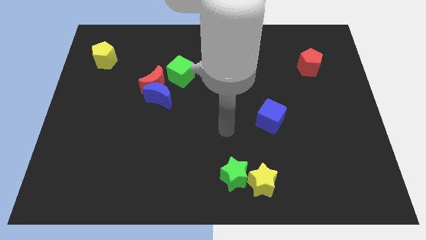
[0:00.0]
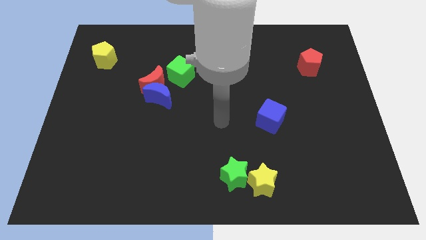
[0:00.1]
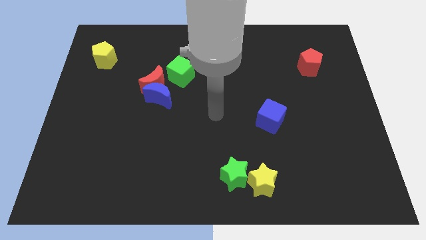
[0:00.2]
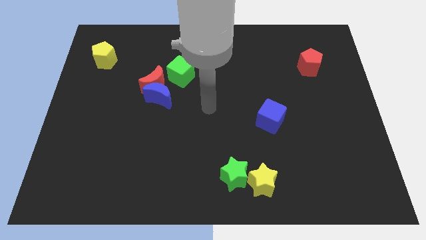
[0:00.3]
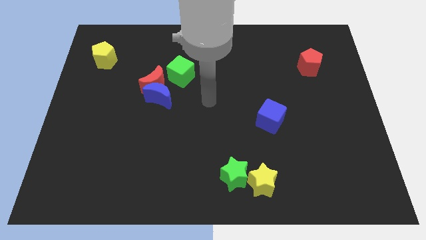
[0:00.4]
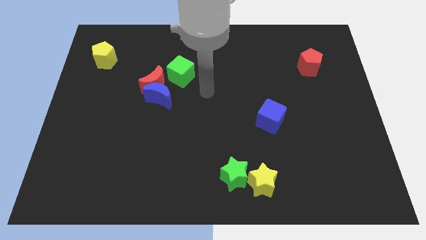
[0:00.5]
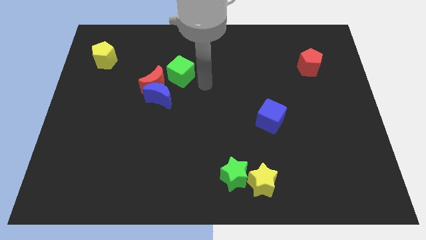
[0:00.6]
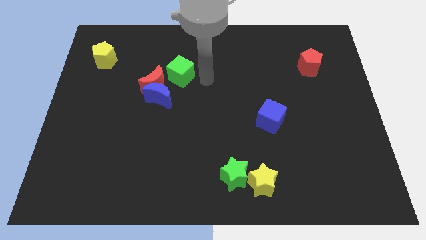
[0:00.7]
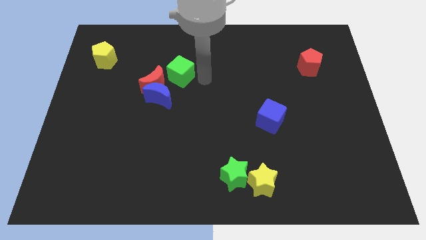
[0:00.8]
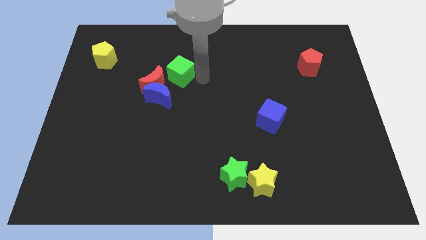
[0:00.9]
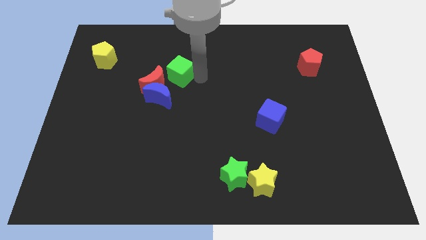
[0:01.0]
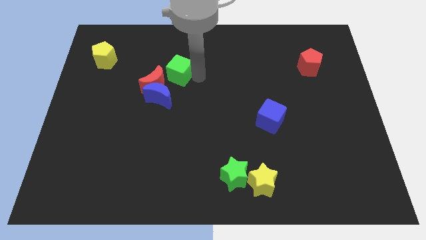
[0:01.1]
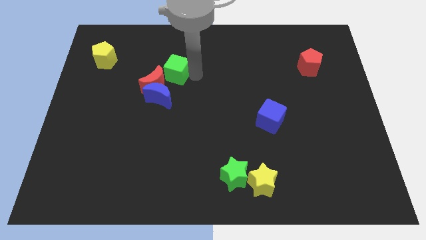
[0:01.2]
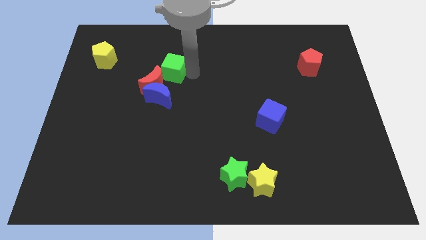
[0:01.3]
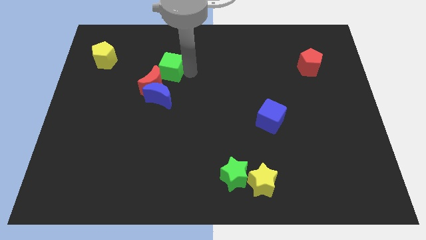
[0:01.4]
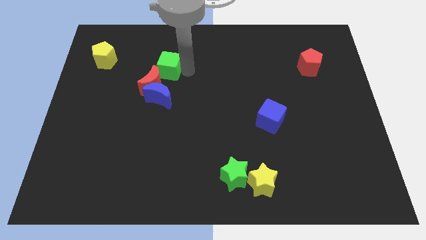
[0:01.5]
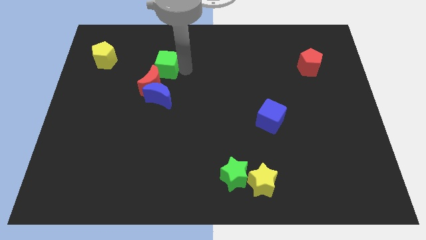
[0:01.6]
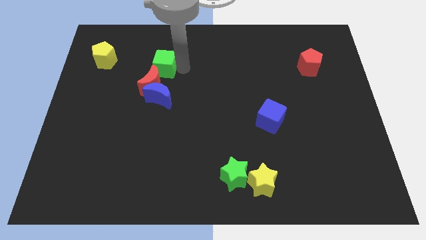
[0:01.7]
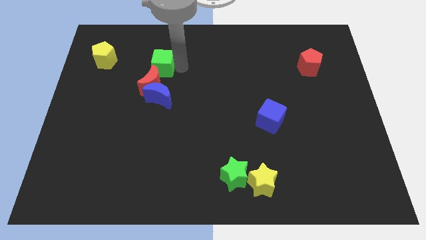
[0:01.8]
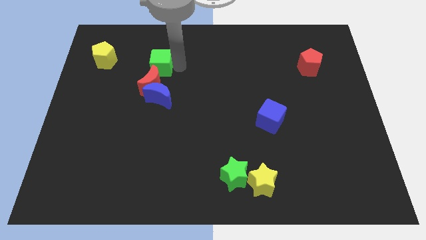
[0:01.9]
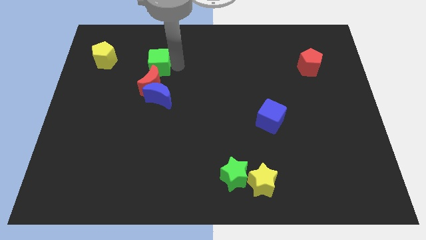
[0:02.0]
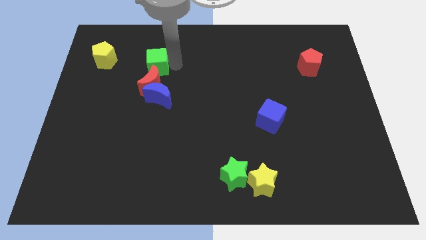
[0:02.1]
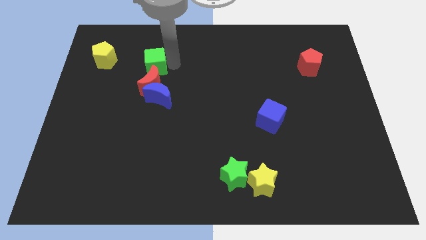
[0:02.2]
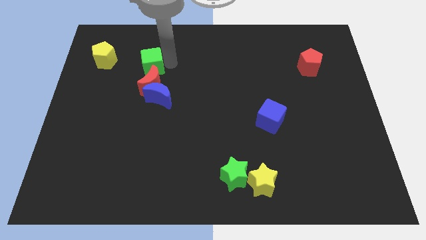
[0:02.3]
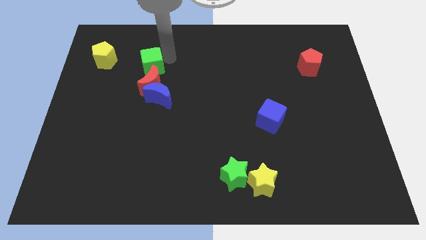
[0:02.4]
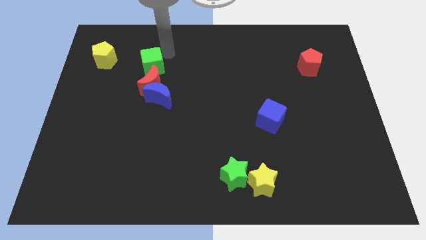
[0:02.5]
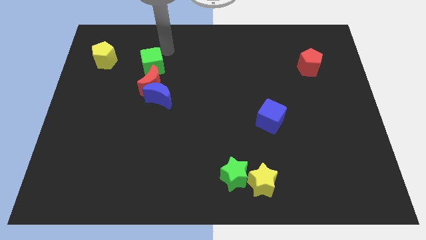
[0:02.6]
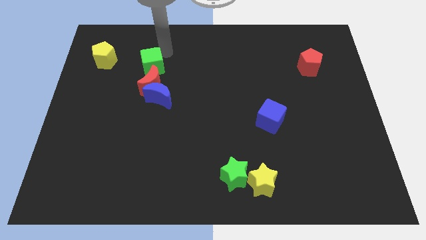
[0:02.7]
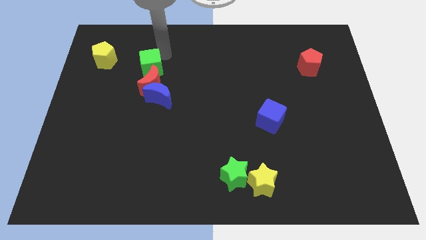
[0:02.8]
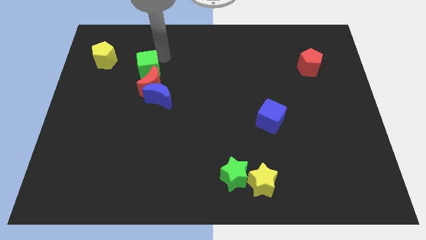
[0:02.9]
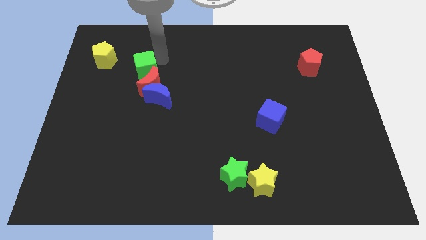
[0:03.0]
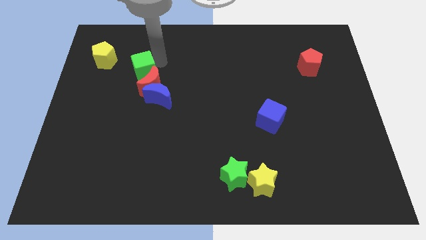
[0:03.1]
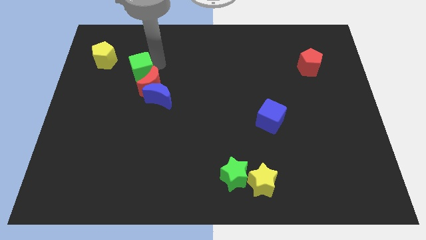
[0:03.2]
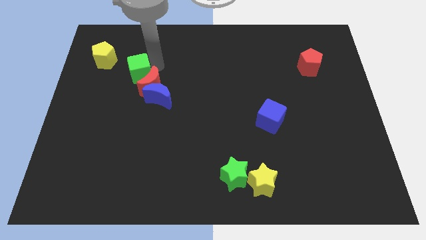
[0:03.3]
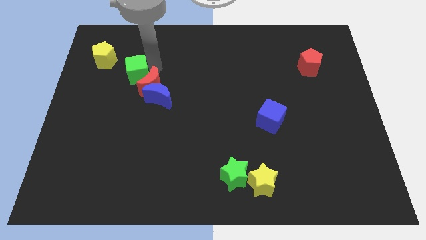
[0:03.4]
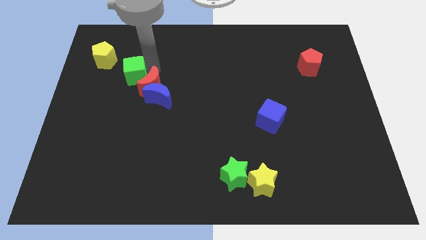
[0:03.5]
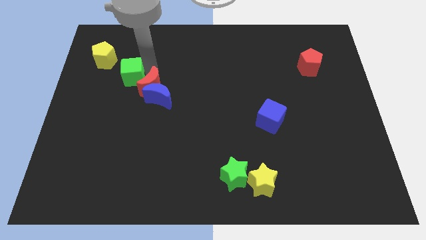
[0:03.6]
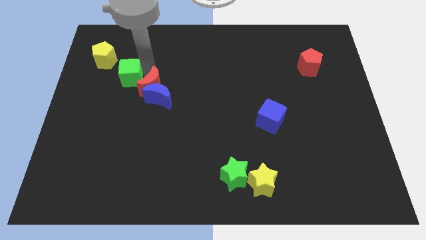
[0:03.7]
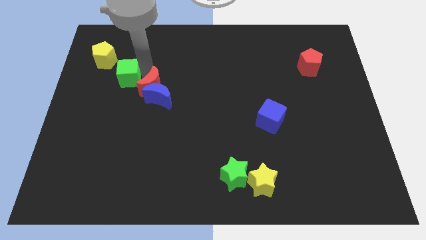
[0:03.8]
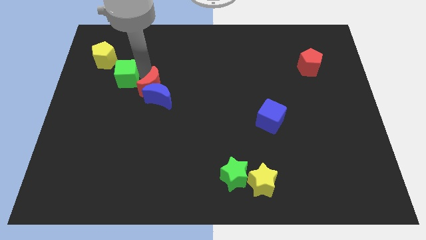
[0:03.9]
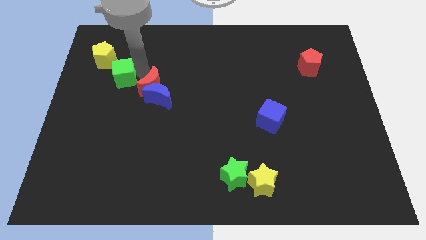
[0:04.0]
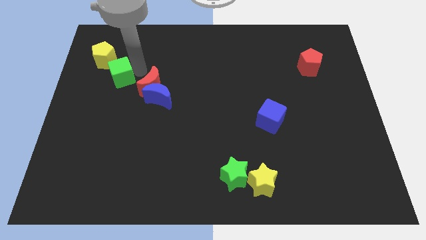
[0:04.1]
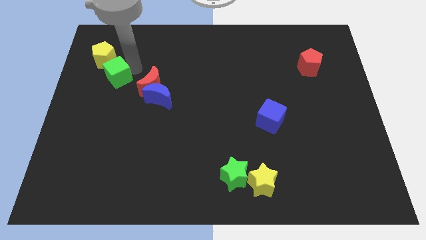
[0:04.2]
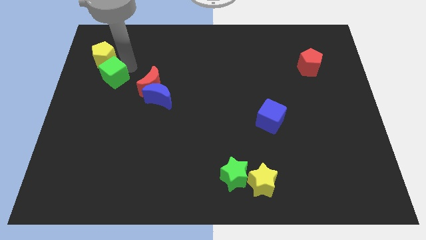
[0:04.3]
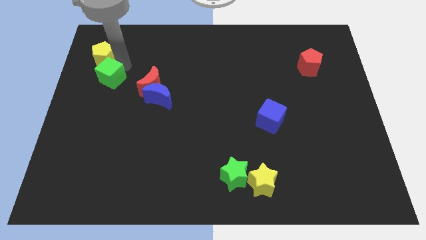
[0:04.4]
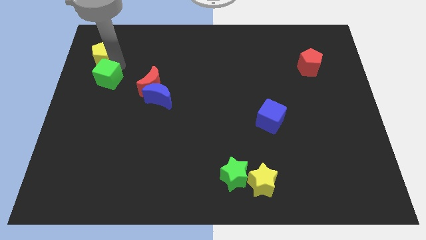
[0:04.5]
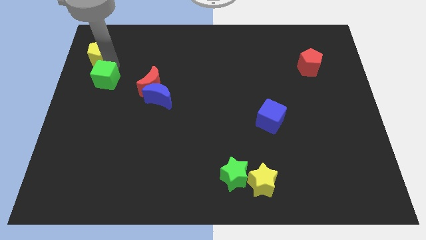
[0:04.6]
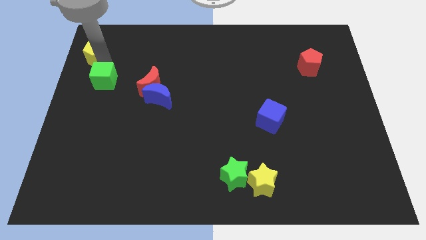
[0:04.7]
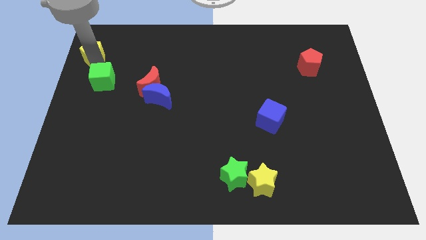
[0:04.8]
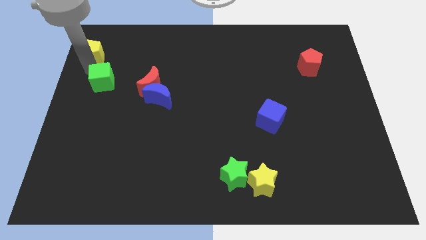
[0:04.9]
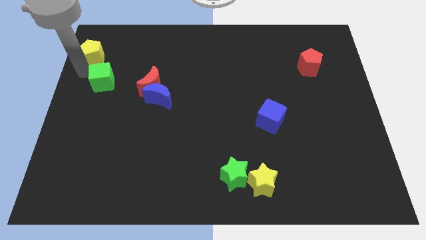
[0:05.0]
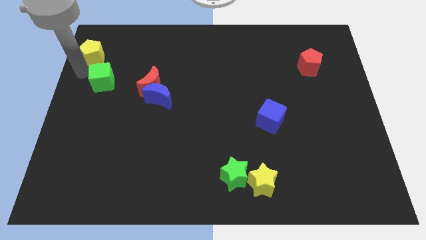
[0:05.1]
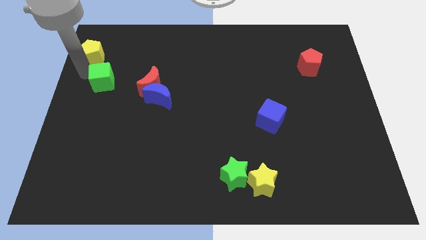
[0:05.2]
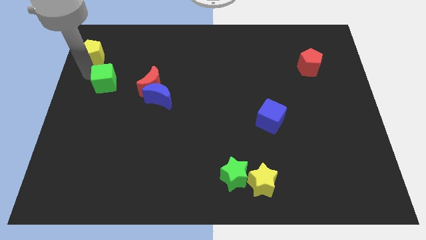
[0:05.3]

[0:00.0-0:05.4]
move the green cube diagonally down and left a bit

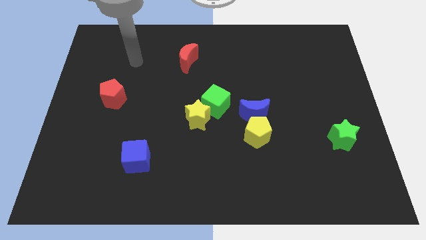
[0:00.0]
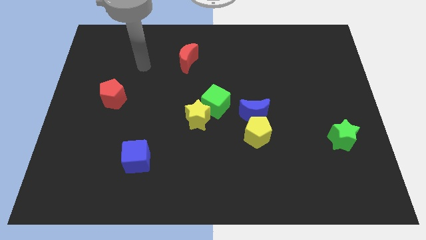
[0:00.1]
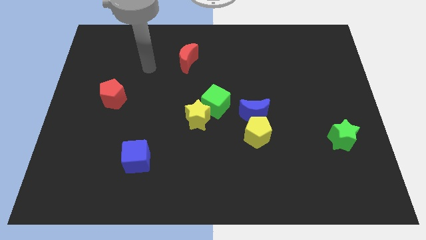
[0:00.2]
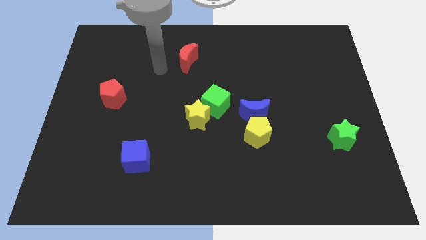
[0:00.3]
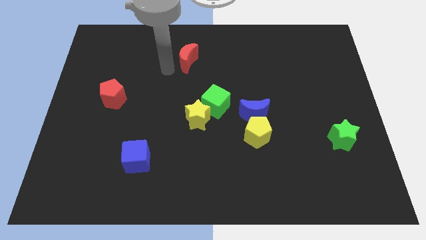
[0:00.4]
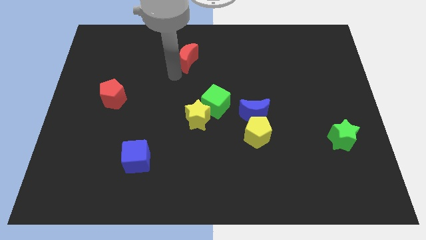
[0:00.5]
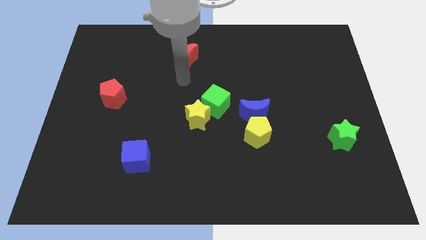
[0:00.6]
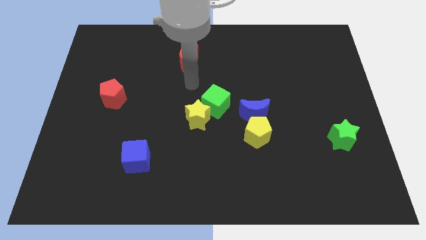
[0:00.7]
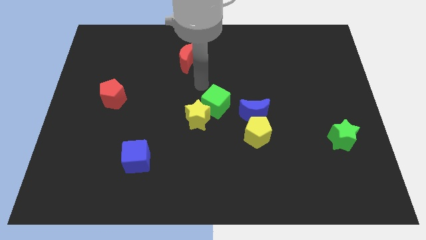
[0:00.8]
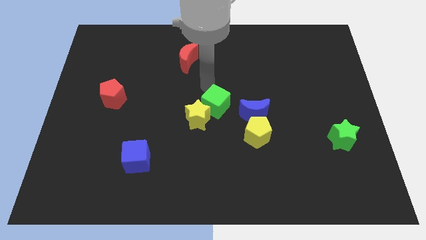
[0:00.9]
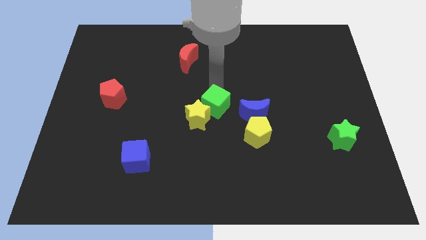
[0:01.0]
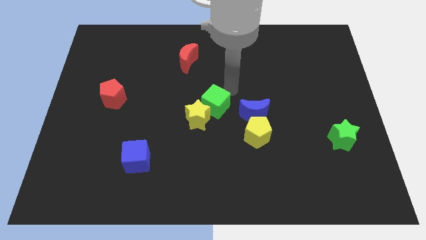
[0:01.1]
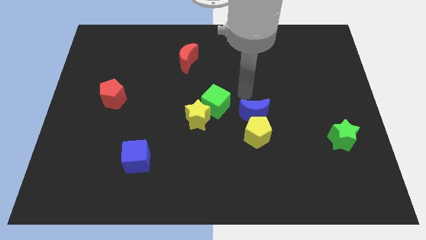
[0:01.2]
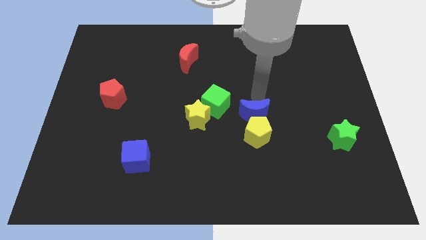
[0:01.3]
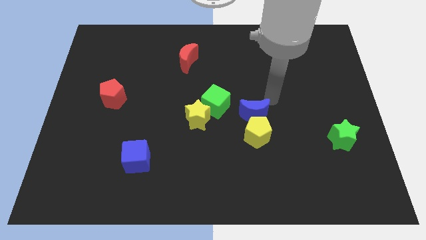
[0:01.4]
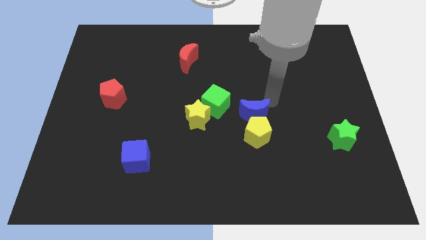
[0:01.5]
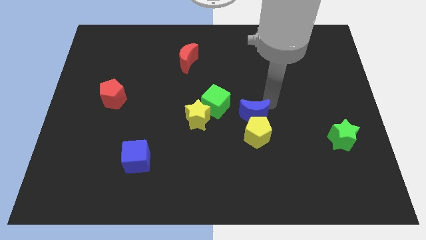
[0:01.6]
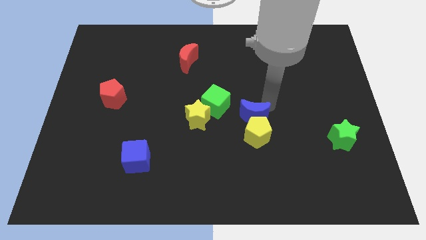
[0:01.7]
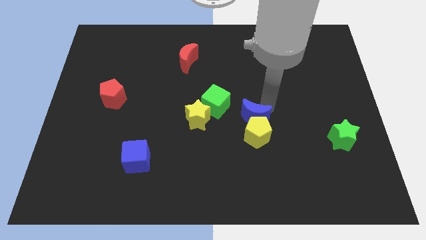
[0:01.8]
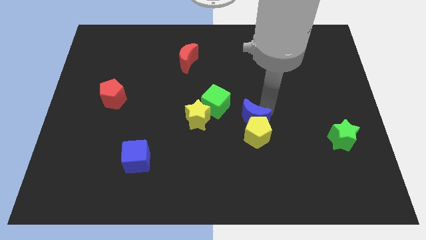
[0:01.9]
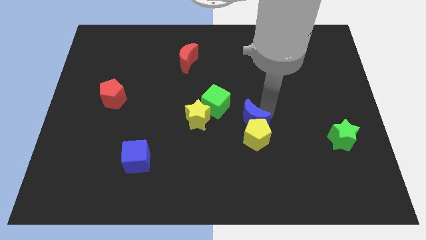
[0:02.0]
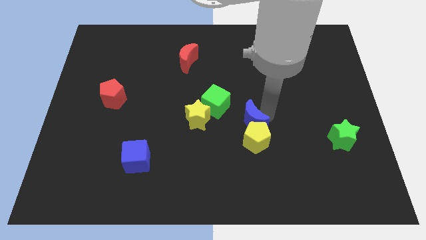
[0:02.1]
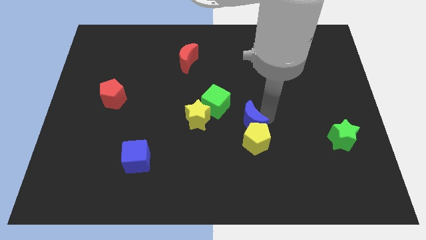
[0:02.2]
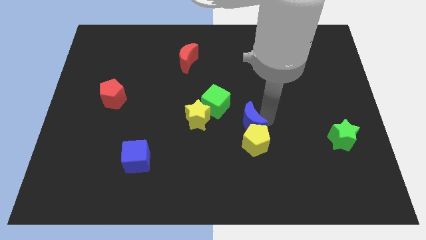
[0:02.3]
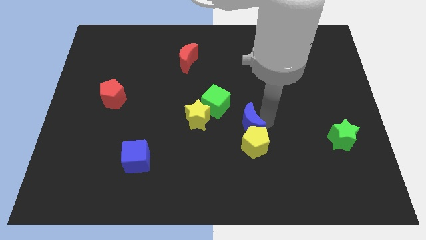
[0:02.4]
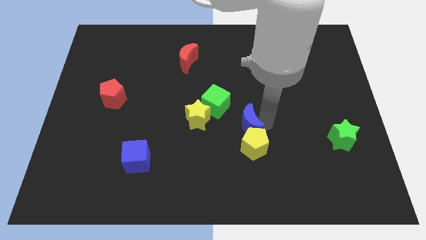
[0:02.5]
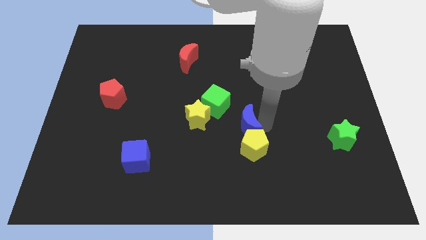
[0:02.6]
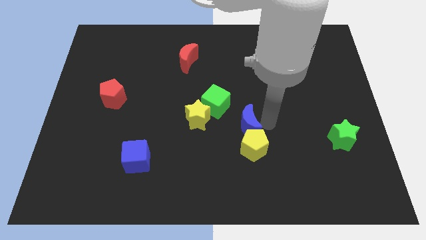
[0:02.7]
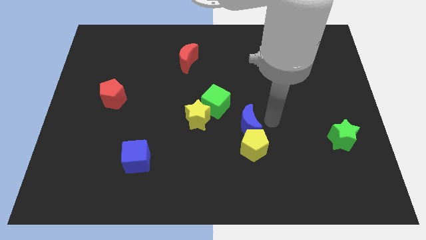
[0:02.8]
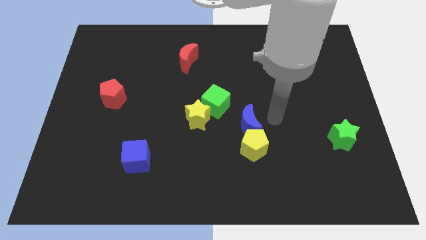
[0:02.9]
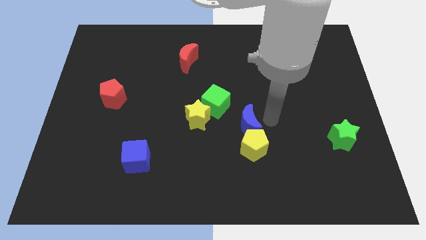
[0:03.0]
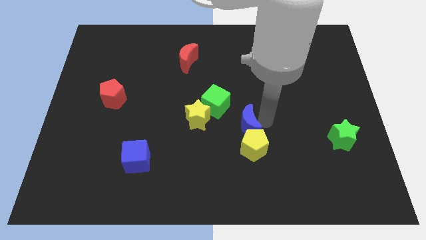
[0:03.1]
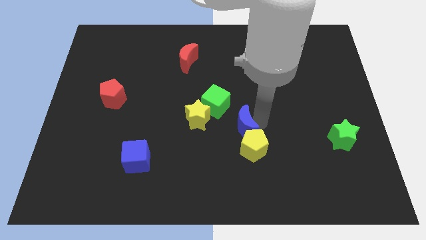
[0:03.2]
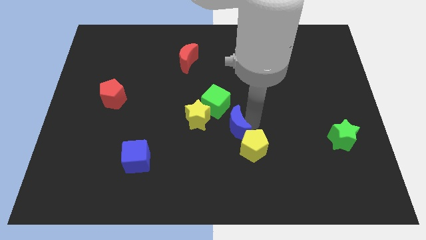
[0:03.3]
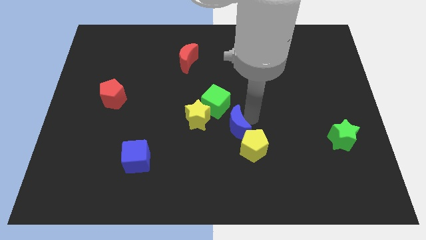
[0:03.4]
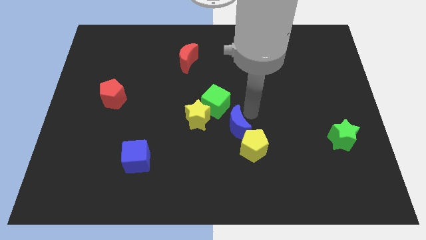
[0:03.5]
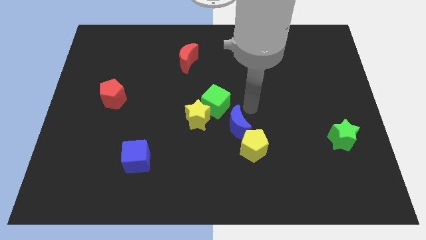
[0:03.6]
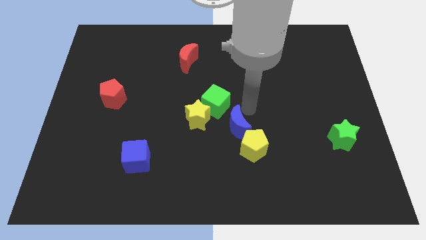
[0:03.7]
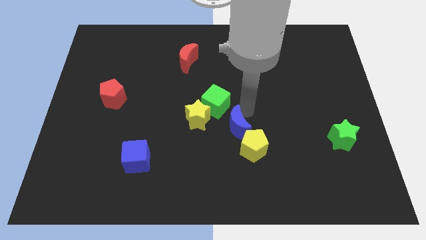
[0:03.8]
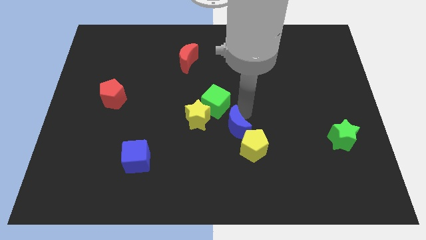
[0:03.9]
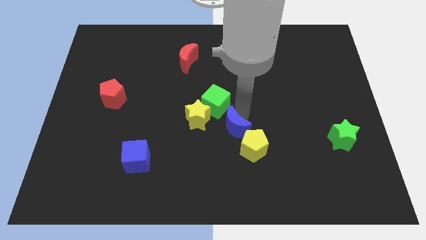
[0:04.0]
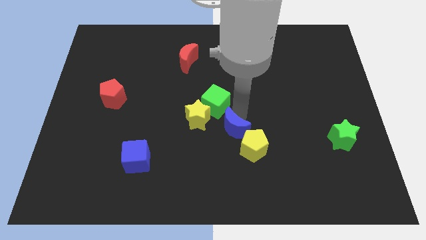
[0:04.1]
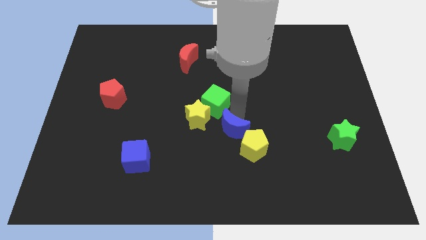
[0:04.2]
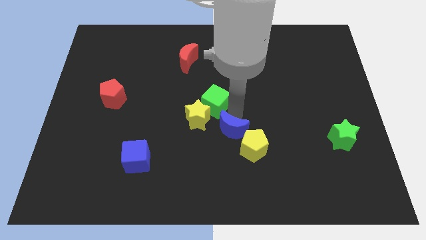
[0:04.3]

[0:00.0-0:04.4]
move the blue moon downwards and left diagonally a little bit
